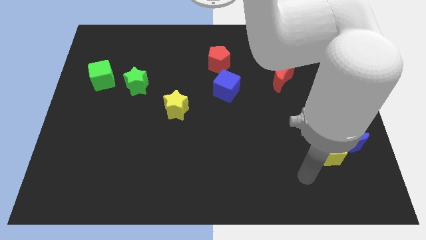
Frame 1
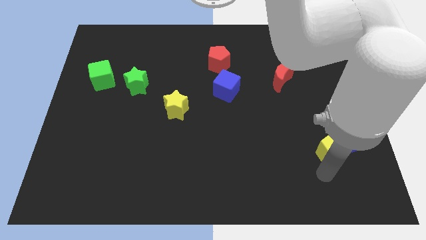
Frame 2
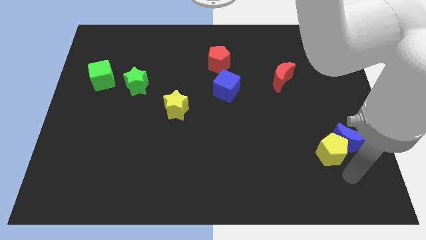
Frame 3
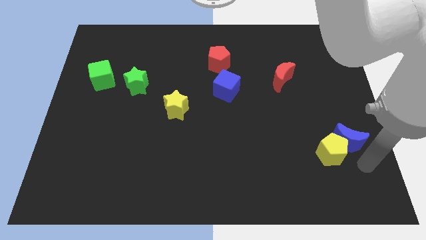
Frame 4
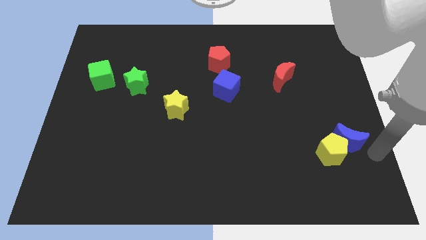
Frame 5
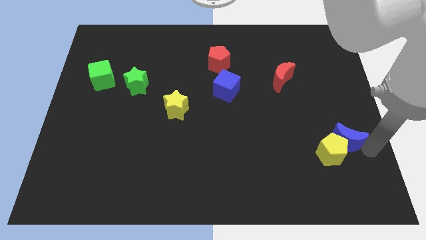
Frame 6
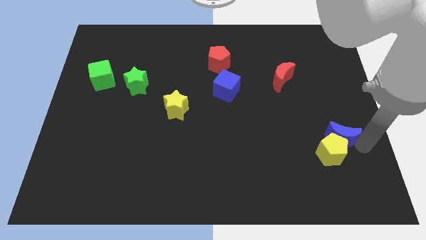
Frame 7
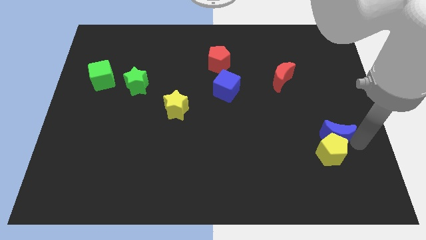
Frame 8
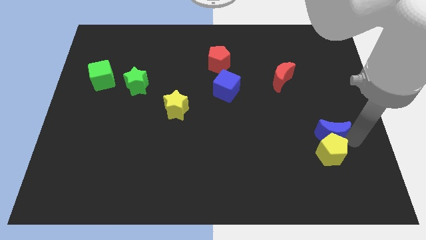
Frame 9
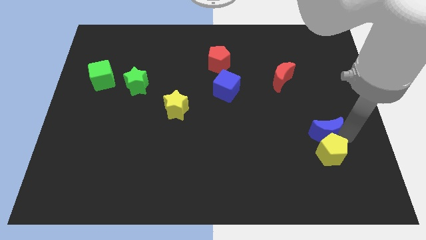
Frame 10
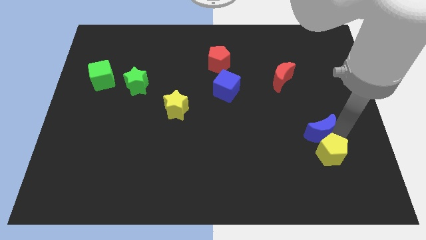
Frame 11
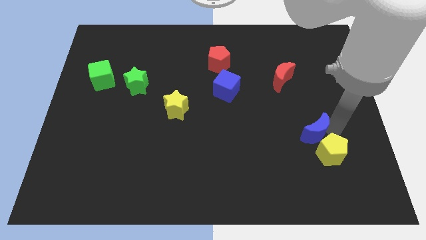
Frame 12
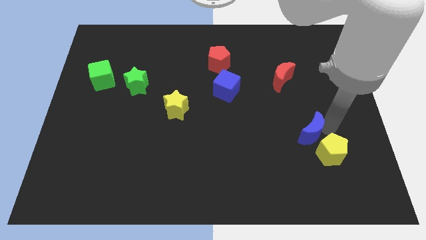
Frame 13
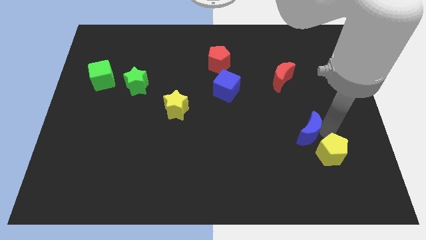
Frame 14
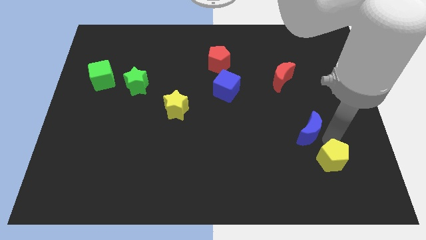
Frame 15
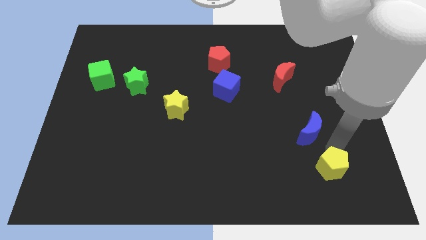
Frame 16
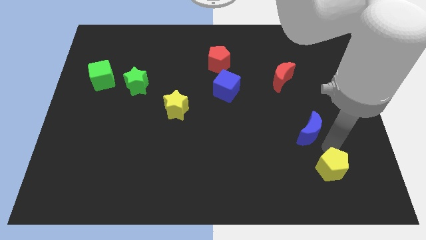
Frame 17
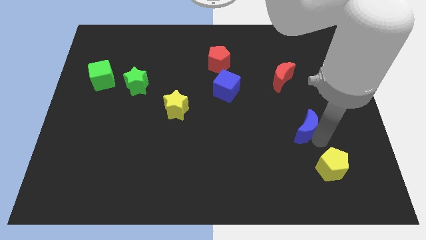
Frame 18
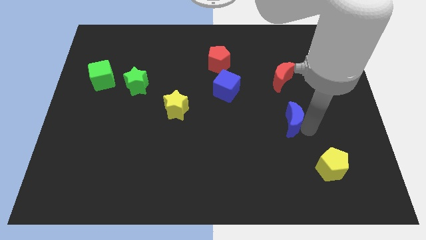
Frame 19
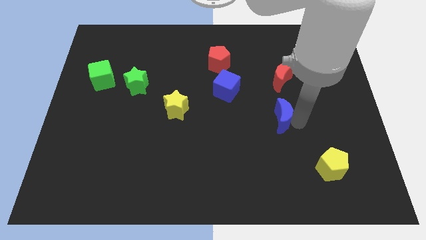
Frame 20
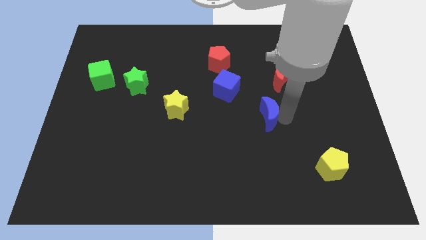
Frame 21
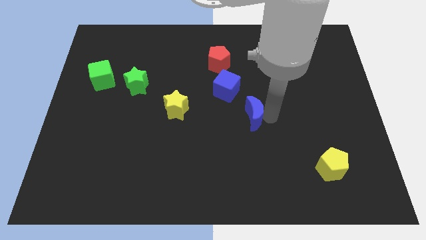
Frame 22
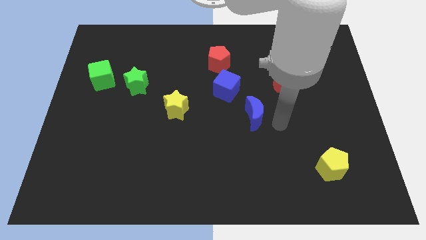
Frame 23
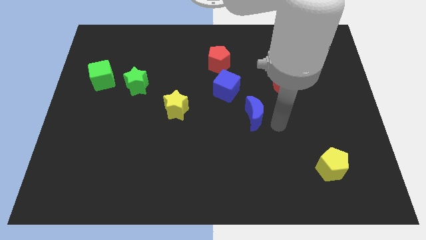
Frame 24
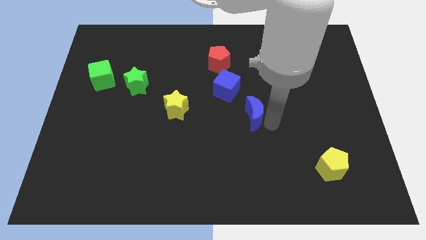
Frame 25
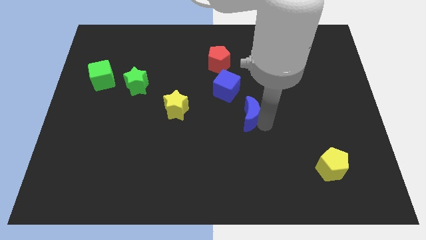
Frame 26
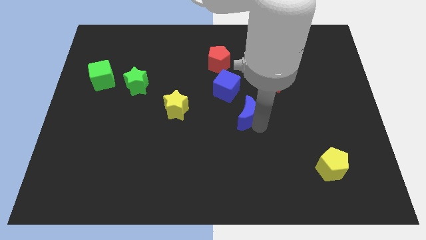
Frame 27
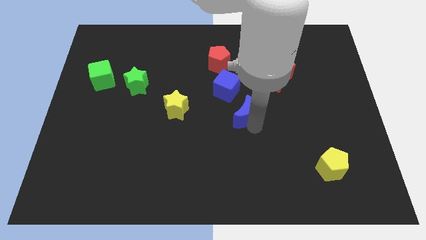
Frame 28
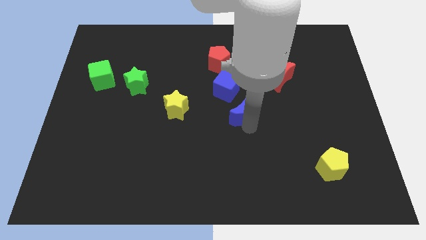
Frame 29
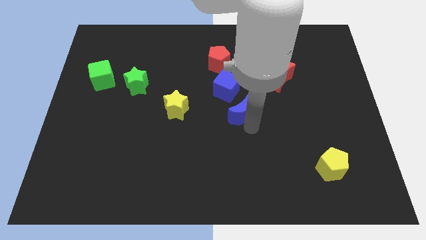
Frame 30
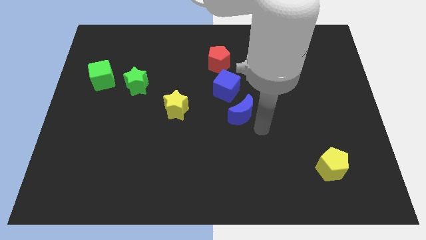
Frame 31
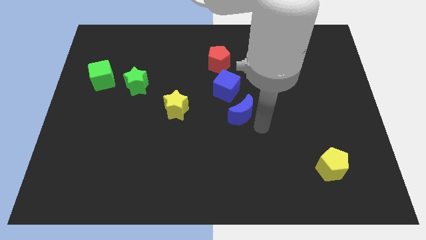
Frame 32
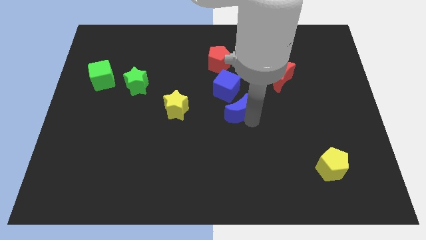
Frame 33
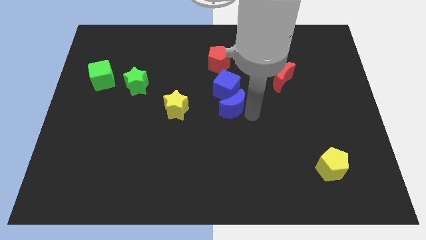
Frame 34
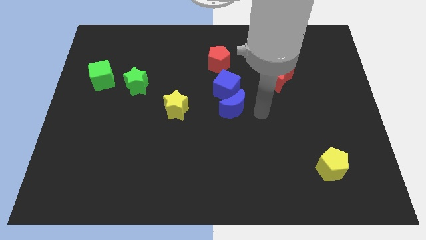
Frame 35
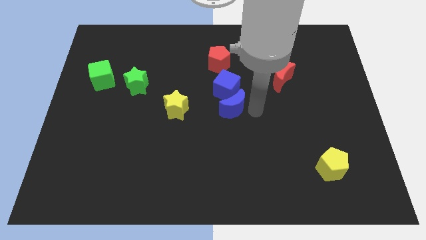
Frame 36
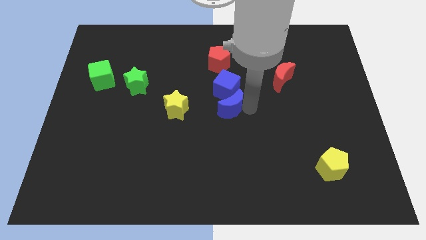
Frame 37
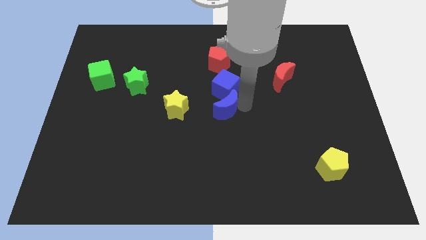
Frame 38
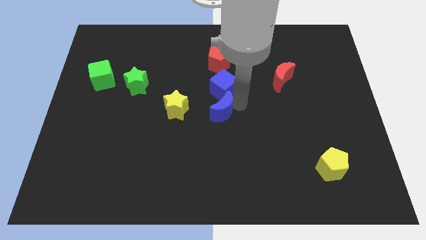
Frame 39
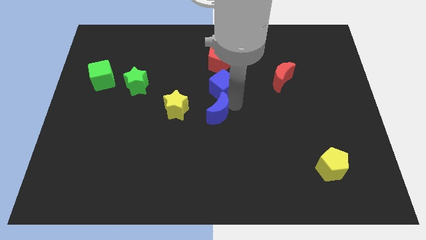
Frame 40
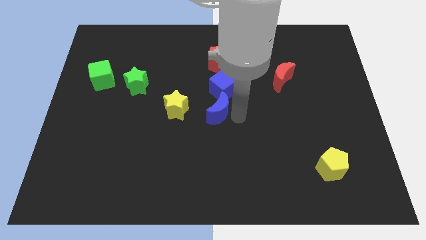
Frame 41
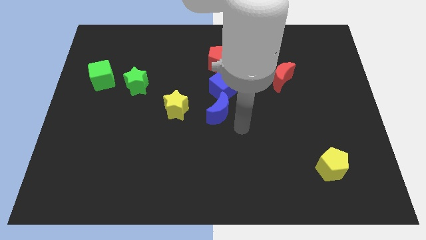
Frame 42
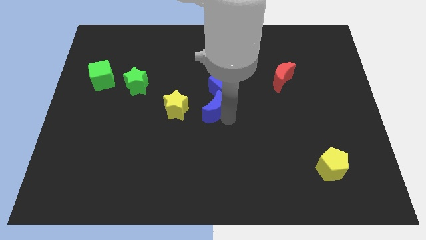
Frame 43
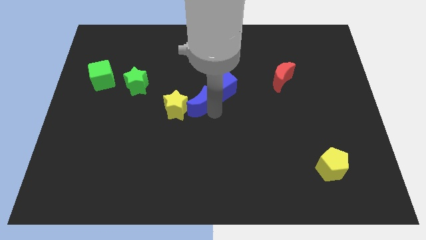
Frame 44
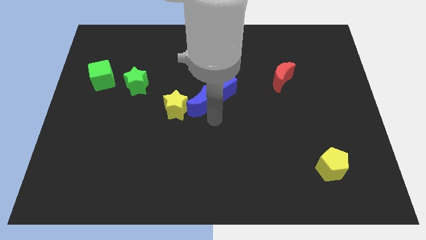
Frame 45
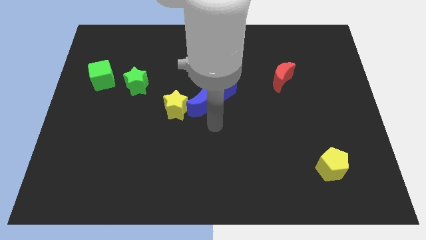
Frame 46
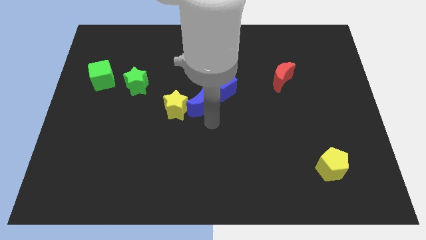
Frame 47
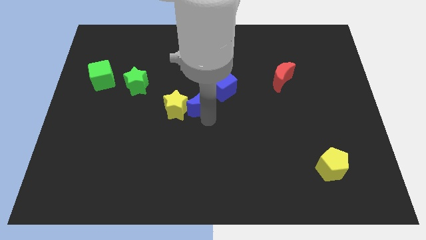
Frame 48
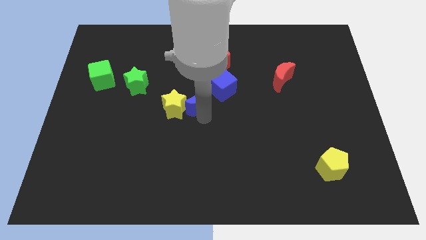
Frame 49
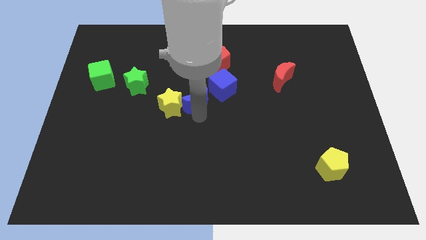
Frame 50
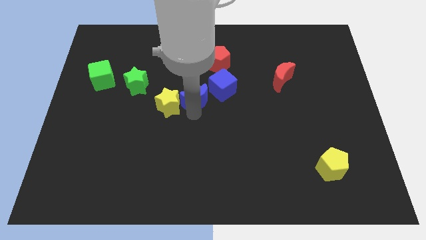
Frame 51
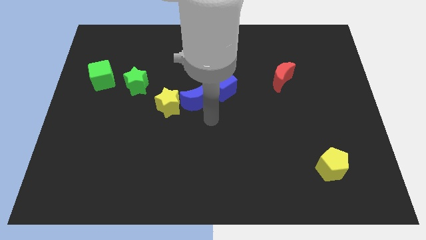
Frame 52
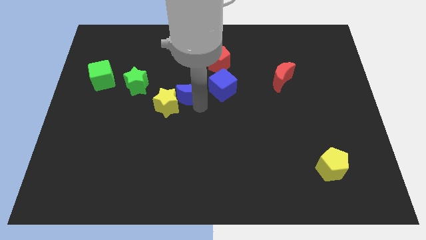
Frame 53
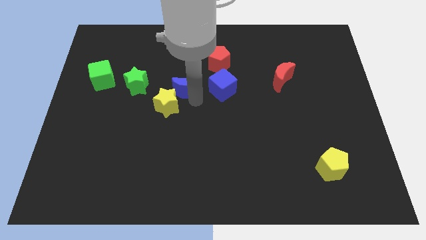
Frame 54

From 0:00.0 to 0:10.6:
slide the blue moon to the top of the yellow star

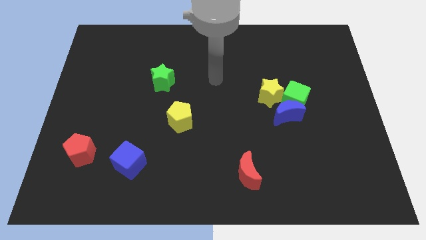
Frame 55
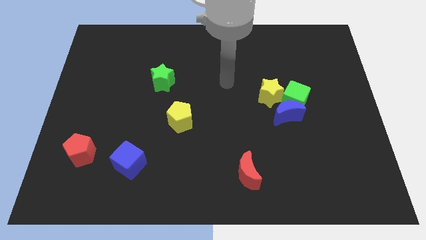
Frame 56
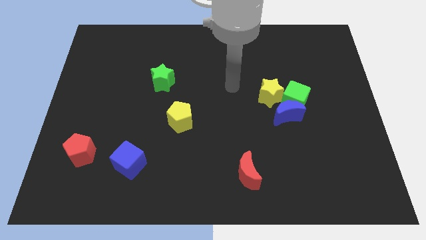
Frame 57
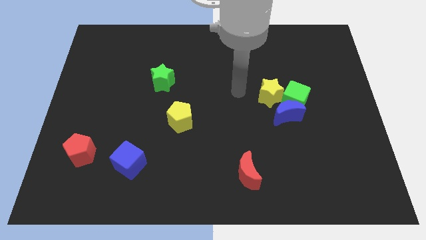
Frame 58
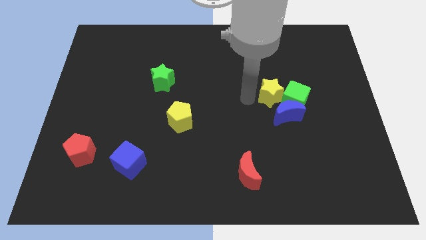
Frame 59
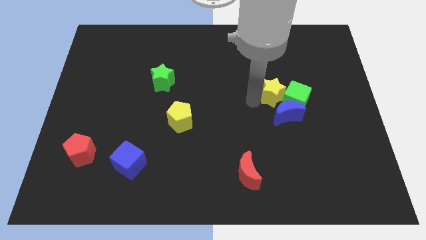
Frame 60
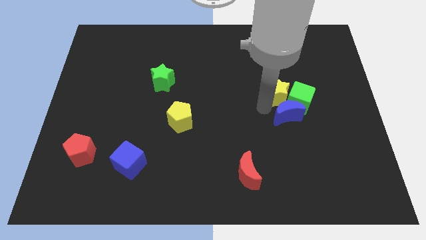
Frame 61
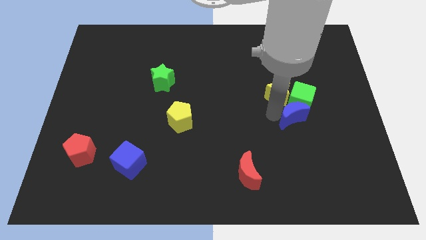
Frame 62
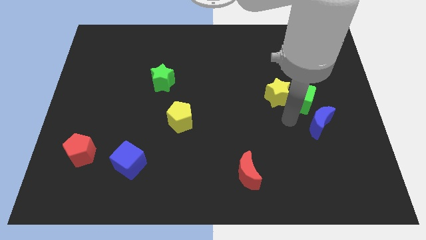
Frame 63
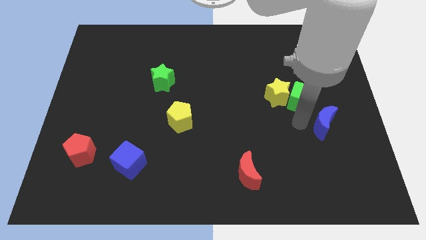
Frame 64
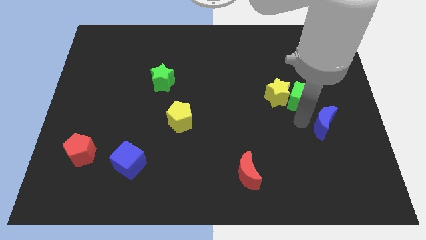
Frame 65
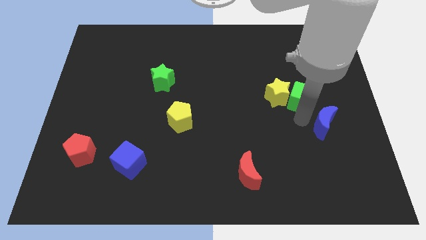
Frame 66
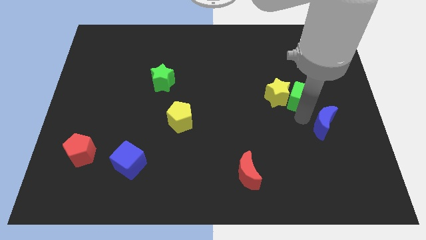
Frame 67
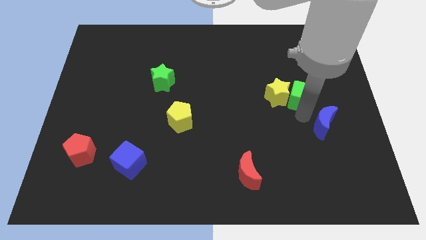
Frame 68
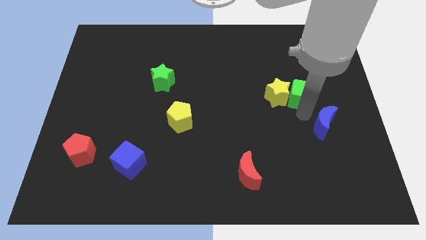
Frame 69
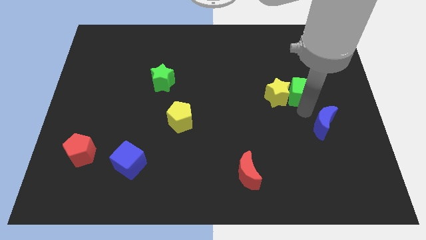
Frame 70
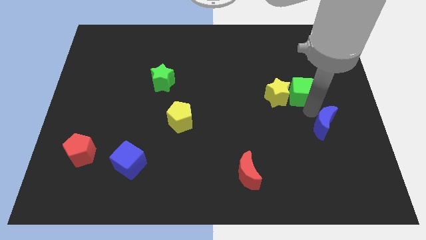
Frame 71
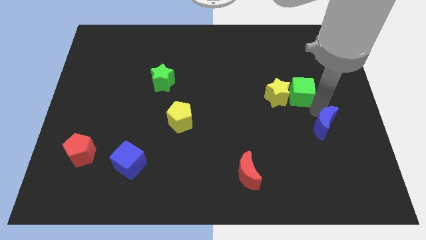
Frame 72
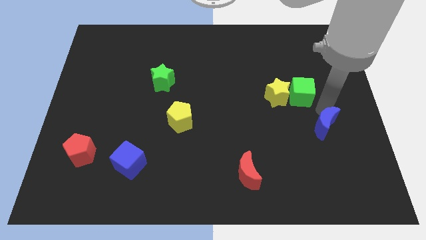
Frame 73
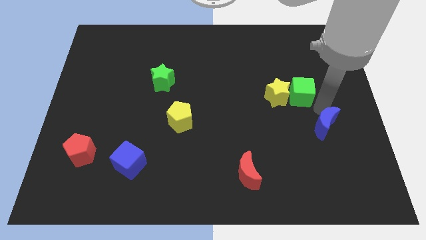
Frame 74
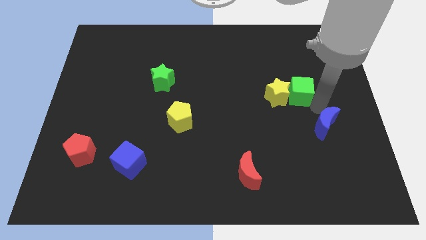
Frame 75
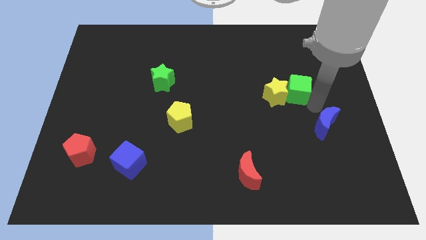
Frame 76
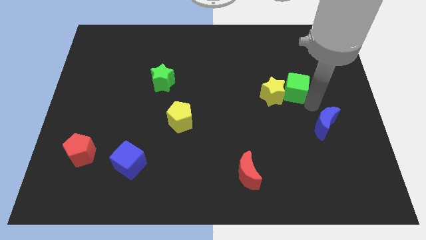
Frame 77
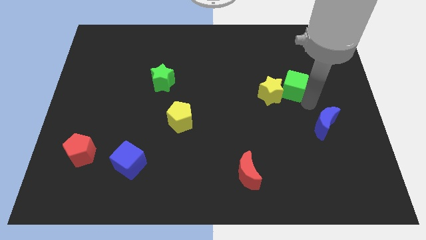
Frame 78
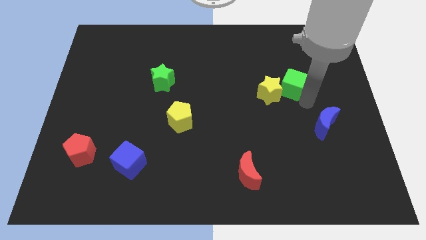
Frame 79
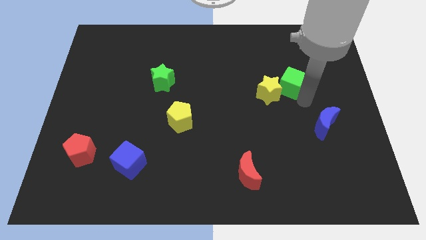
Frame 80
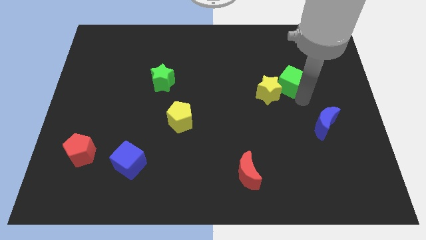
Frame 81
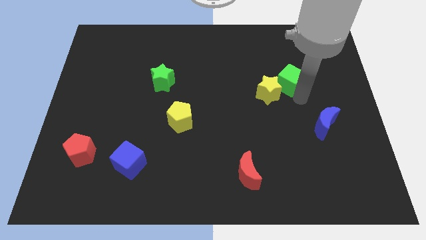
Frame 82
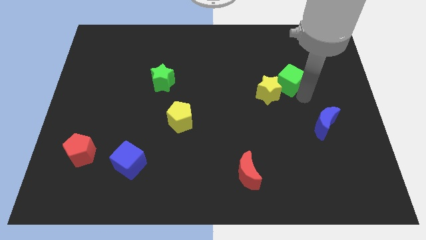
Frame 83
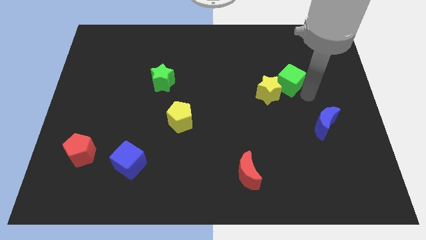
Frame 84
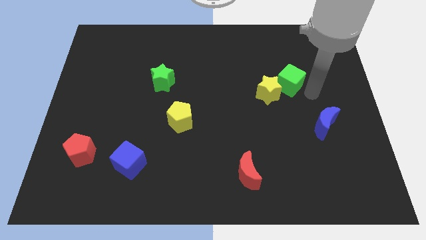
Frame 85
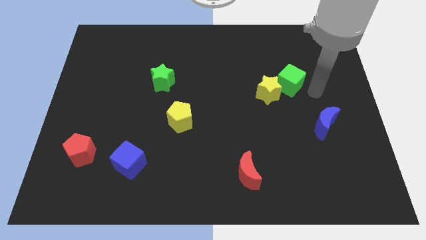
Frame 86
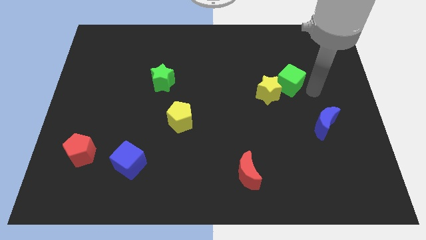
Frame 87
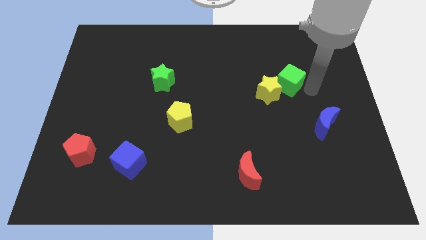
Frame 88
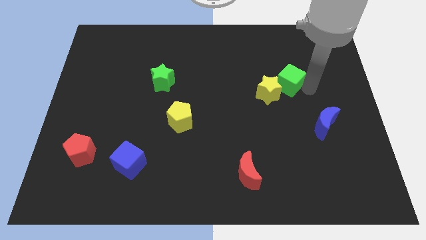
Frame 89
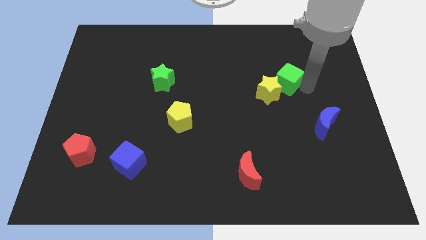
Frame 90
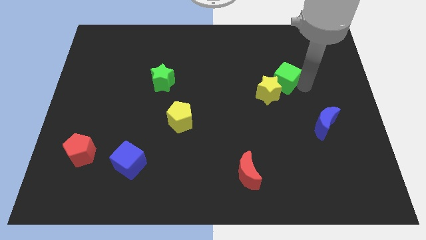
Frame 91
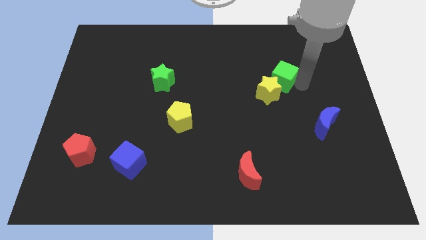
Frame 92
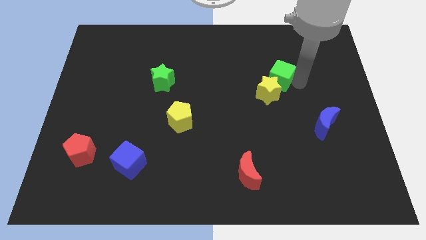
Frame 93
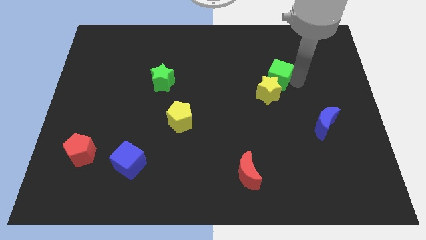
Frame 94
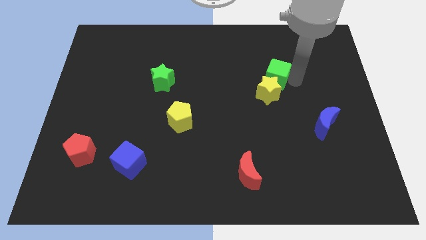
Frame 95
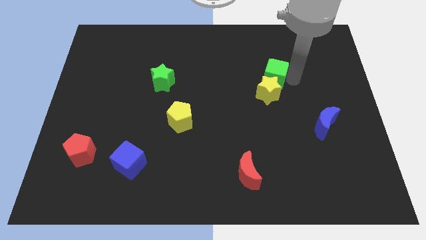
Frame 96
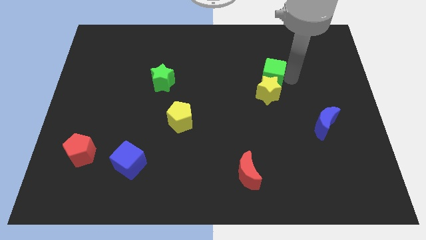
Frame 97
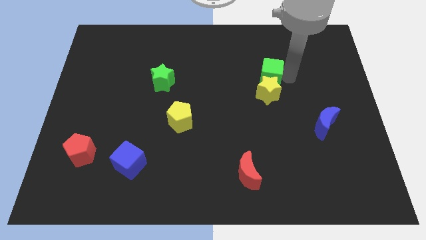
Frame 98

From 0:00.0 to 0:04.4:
push the green cube diagonally up and to the left of the yellow star
